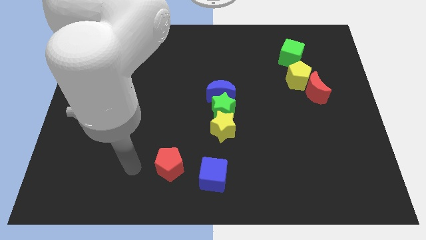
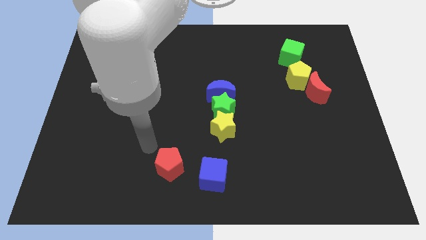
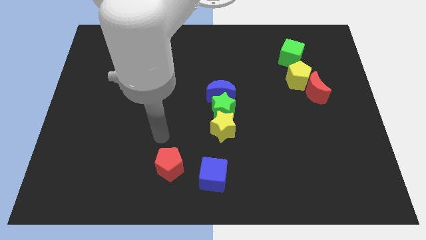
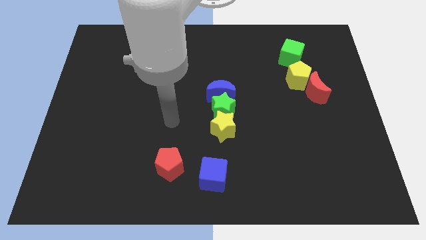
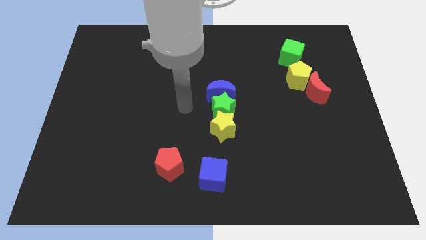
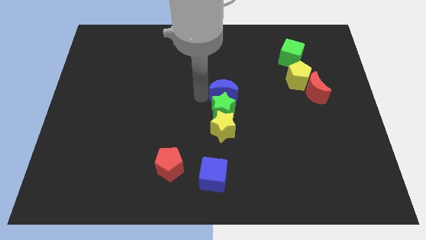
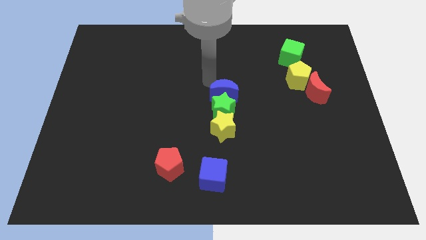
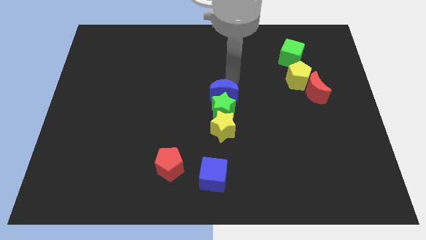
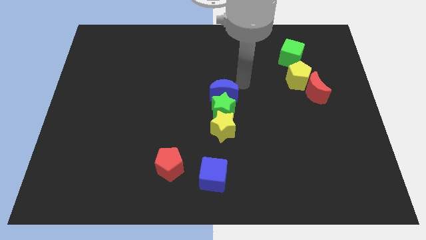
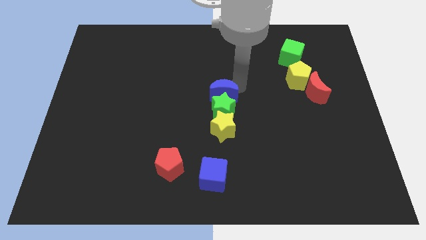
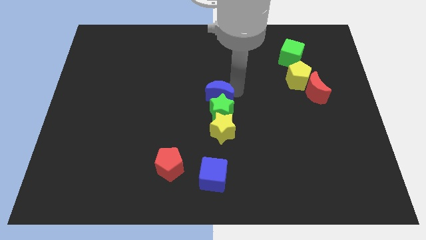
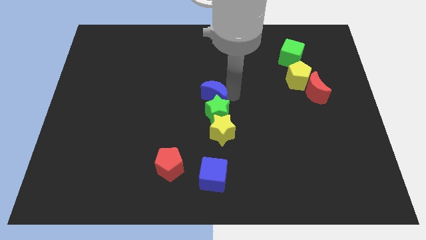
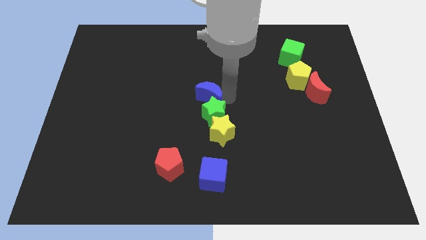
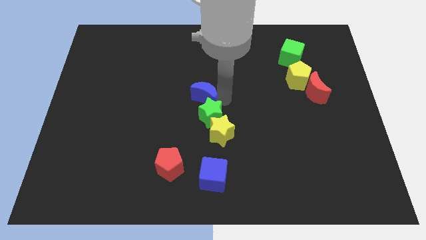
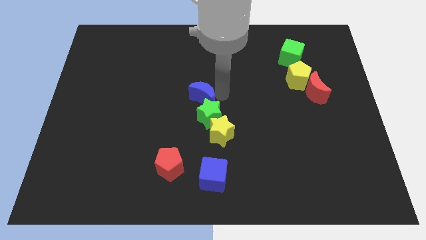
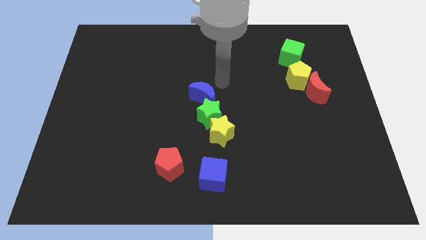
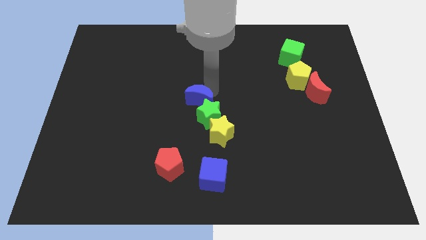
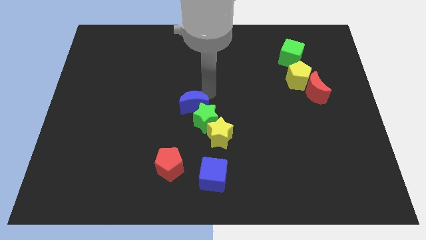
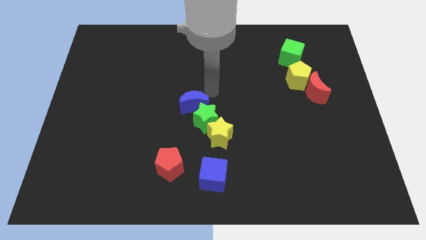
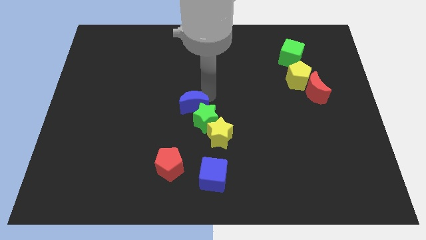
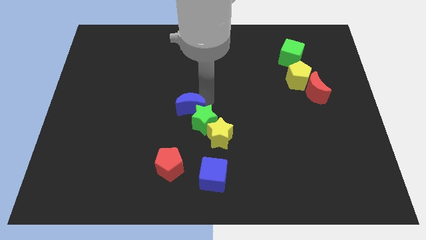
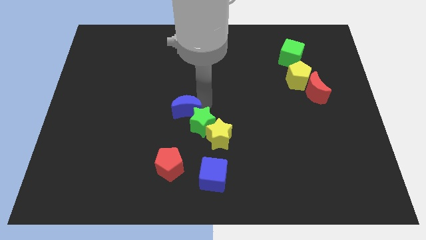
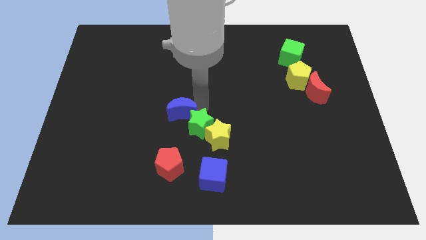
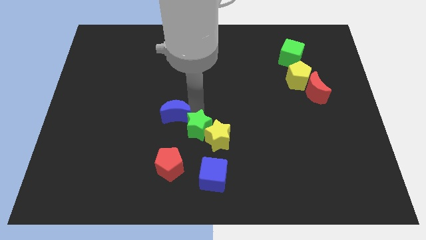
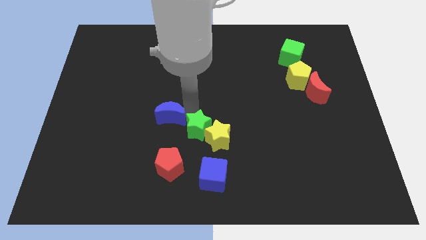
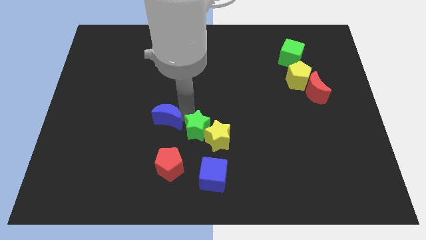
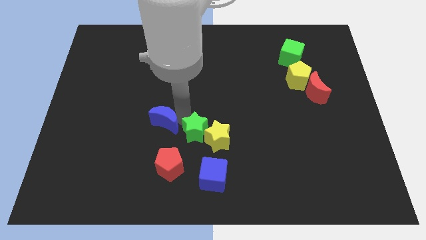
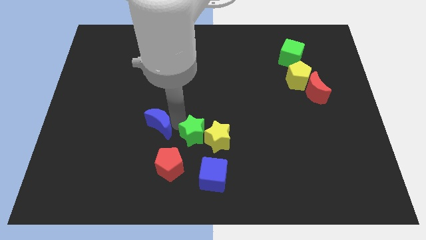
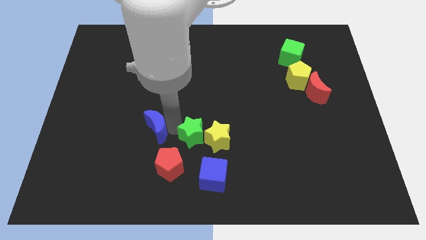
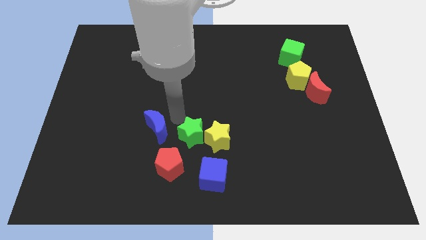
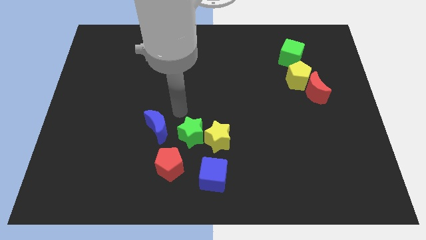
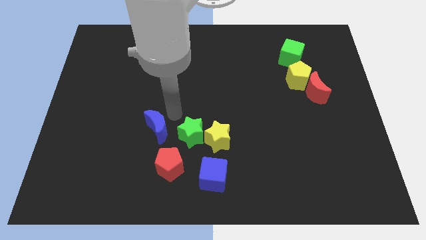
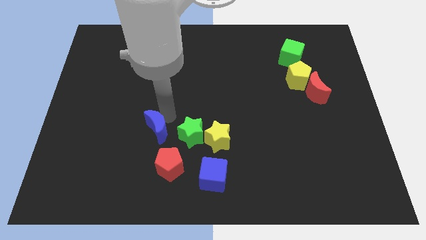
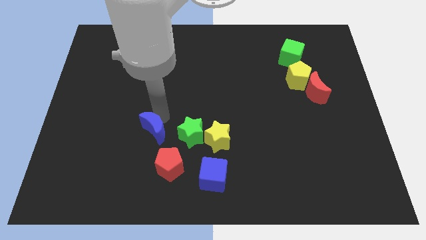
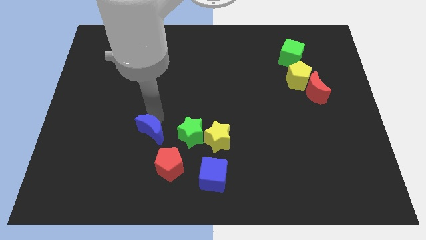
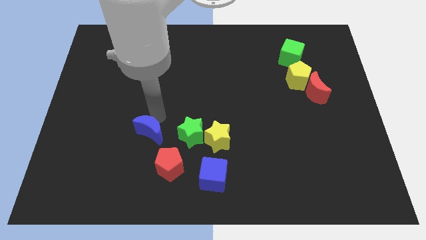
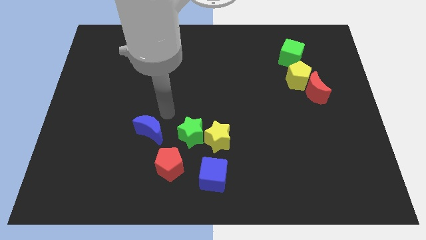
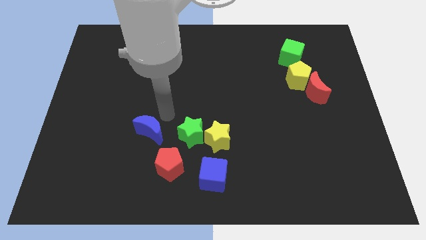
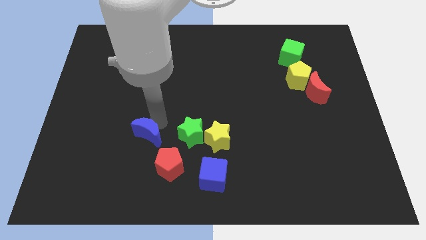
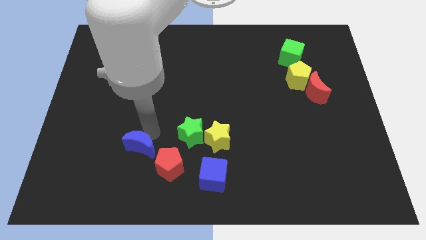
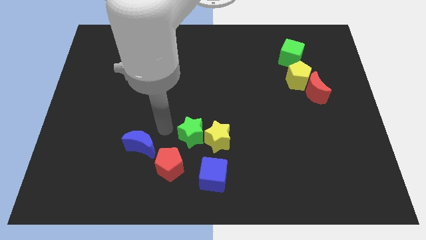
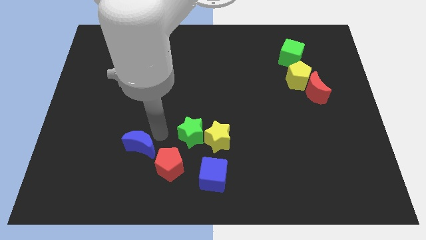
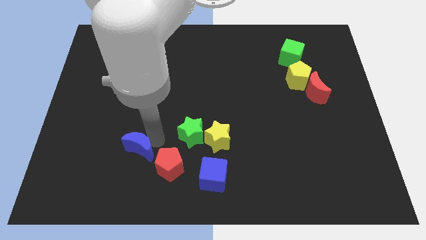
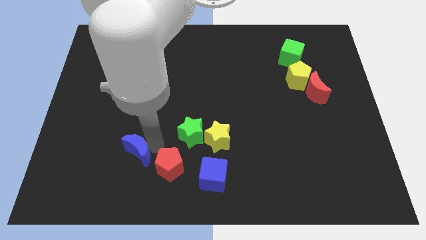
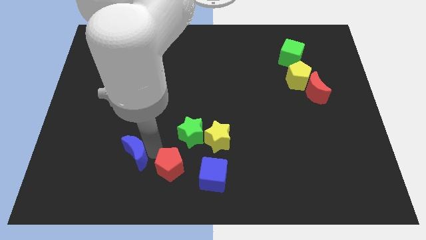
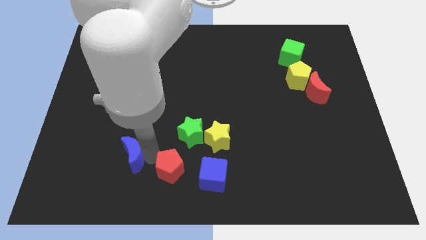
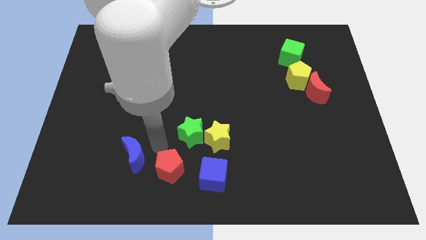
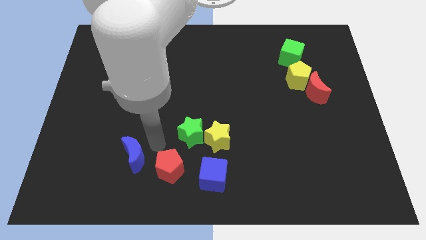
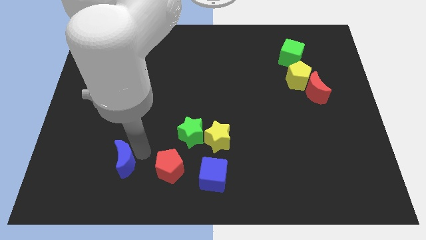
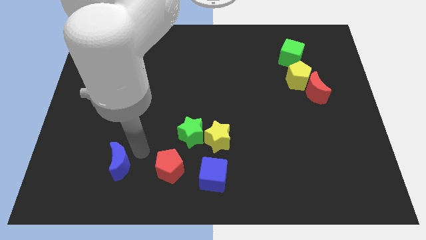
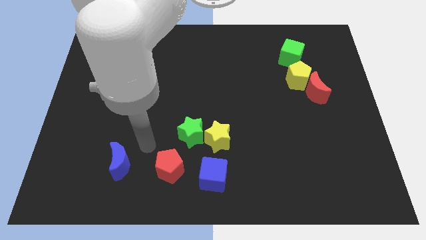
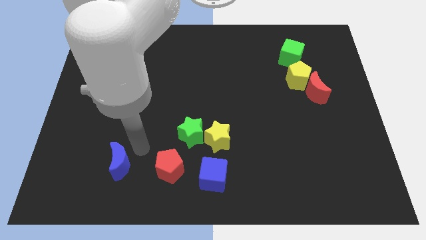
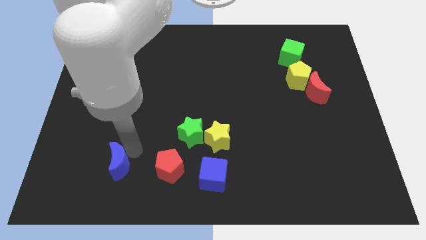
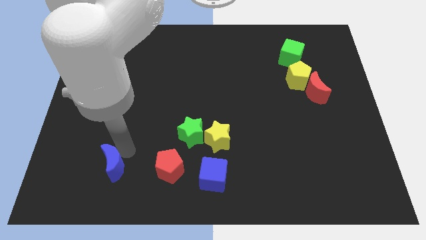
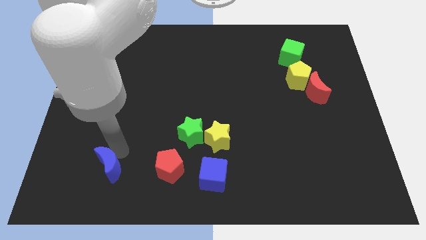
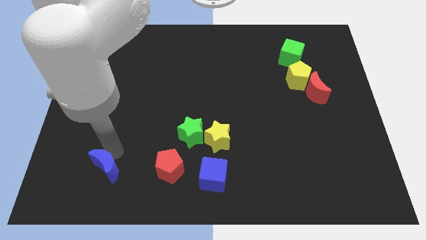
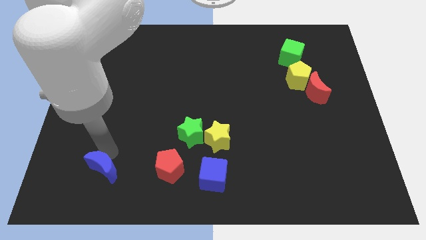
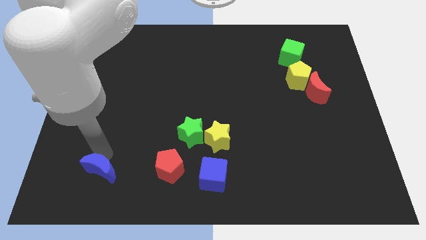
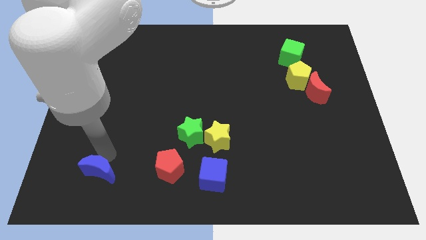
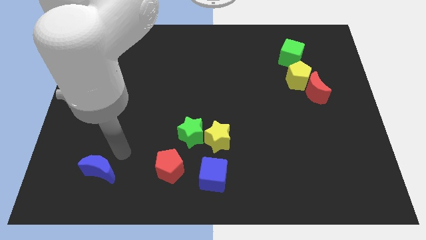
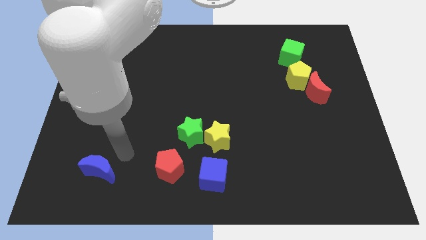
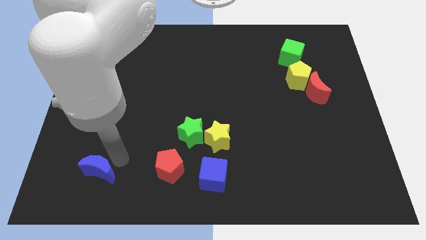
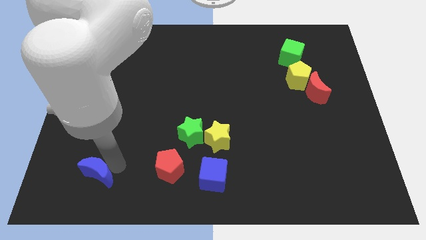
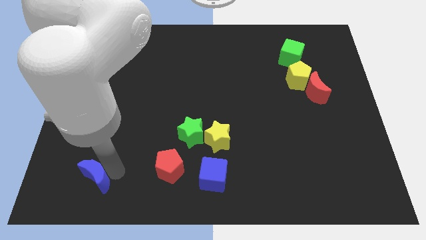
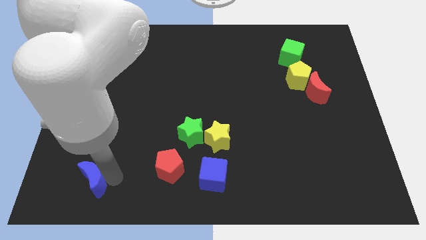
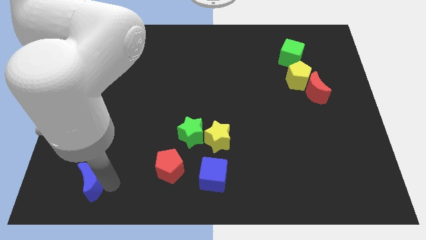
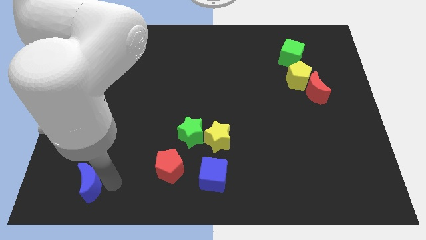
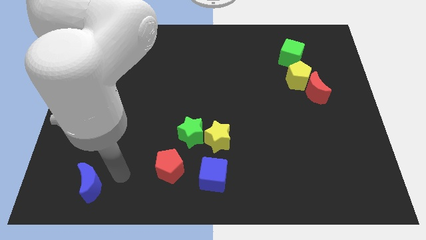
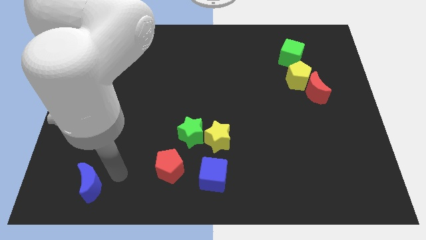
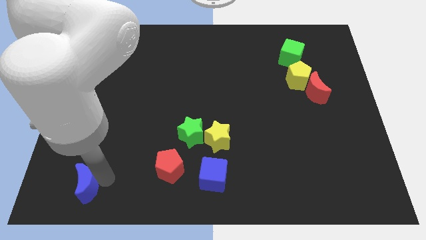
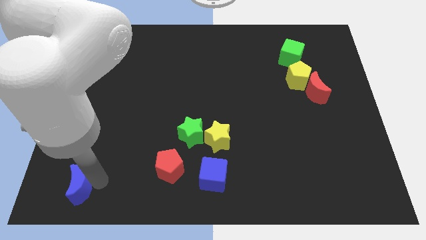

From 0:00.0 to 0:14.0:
slide the blue moon to the bottom left
